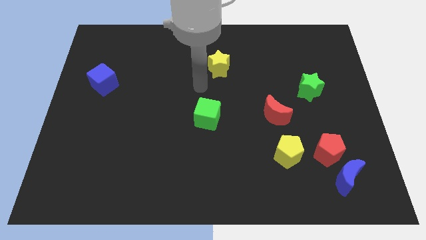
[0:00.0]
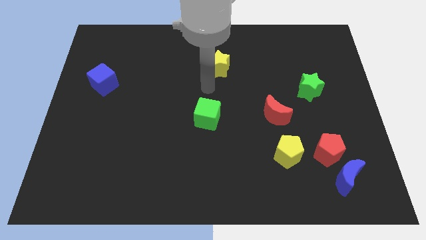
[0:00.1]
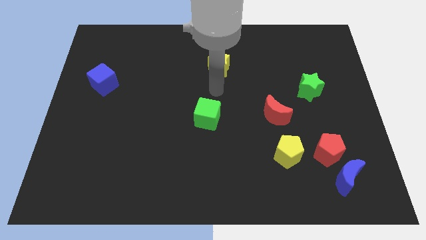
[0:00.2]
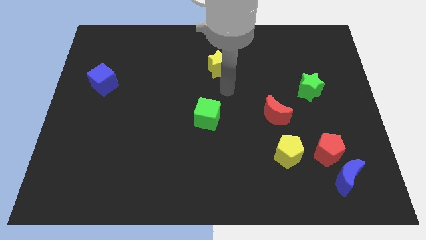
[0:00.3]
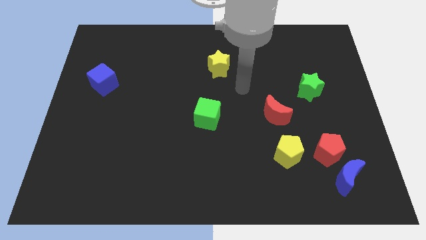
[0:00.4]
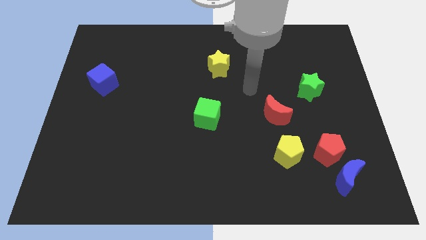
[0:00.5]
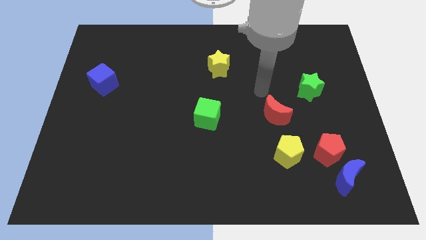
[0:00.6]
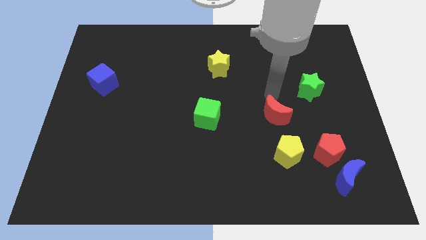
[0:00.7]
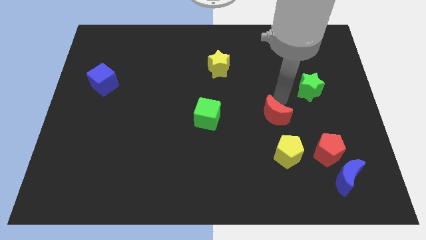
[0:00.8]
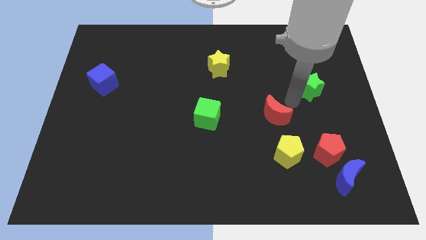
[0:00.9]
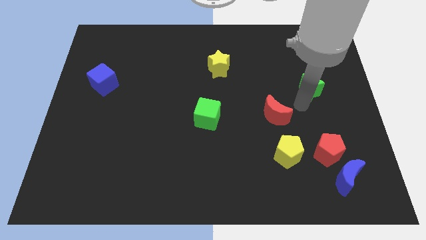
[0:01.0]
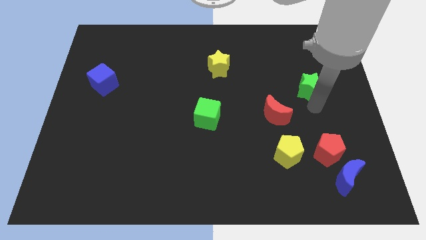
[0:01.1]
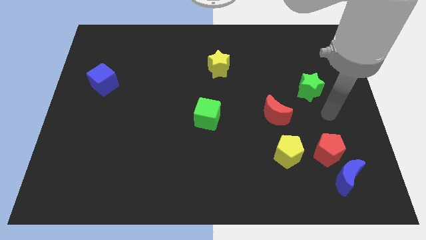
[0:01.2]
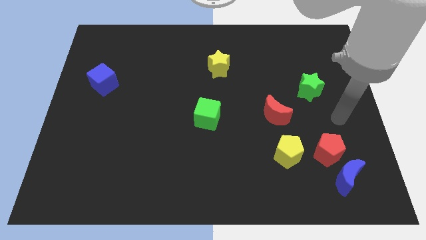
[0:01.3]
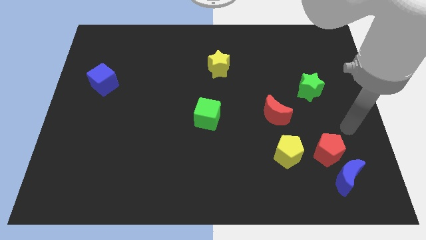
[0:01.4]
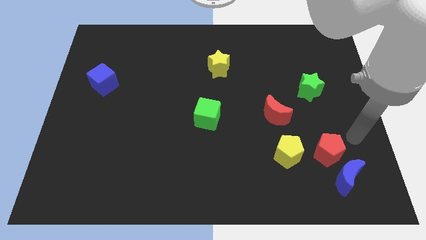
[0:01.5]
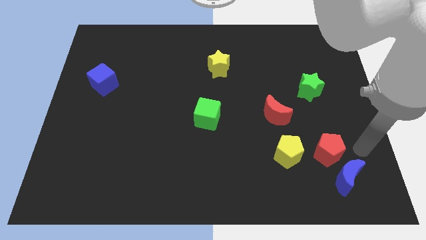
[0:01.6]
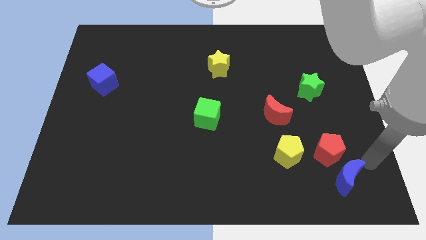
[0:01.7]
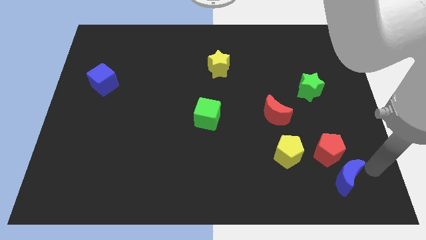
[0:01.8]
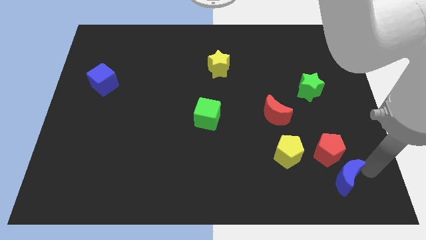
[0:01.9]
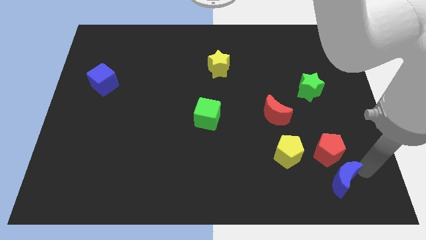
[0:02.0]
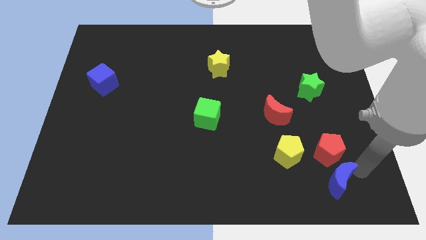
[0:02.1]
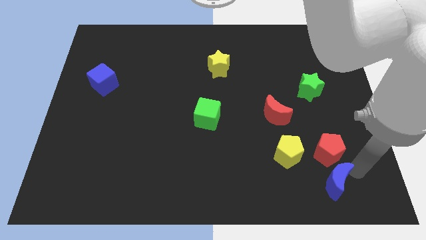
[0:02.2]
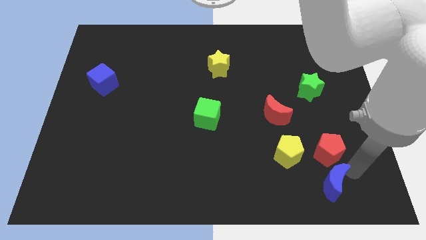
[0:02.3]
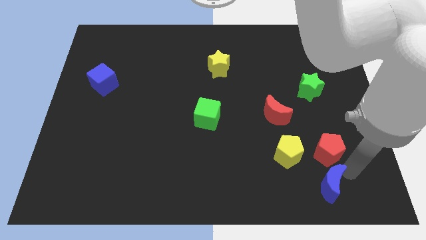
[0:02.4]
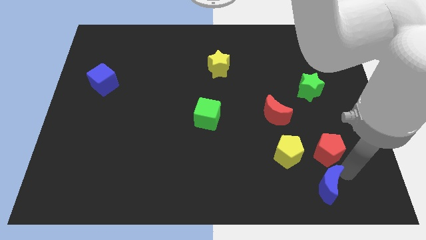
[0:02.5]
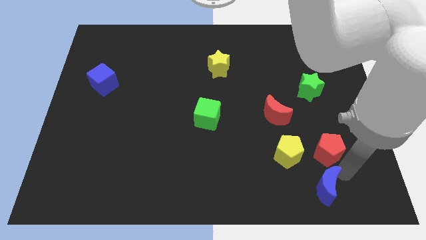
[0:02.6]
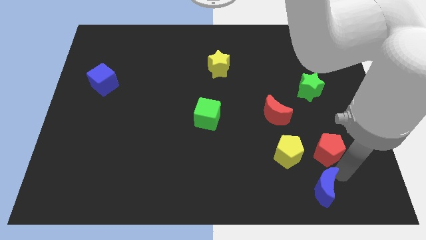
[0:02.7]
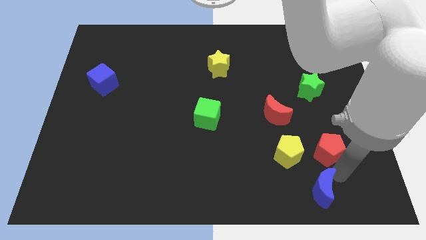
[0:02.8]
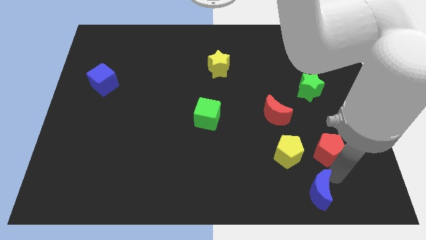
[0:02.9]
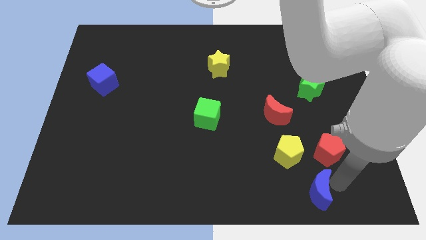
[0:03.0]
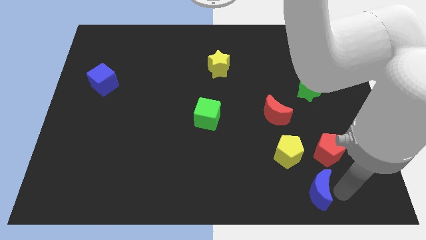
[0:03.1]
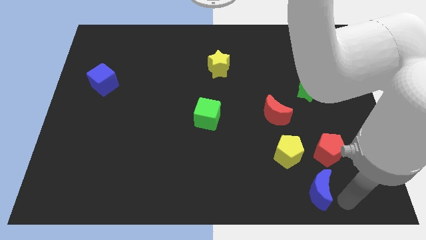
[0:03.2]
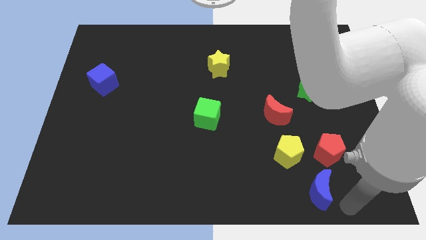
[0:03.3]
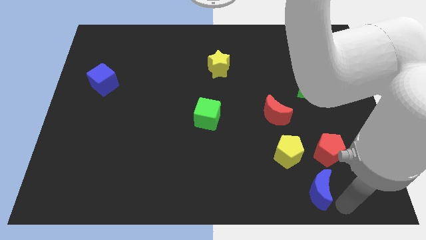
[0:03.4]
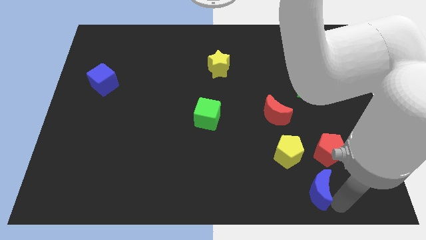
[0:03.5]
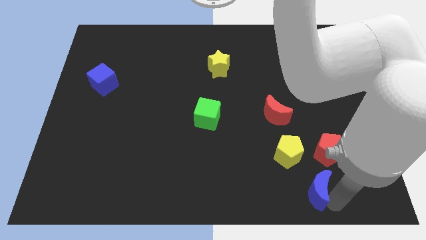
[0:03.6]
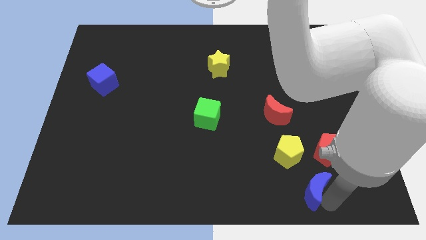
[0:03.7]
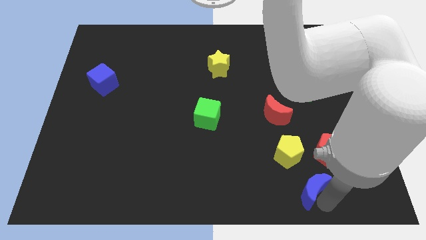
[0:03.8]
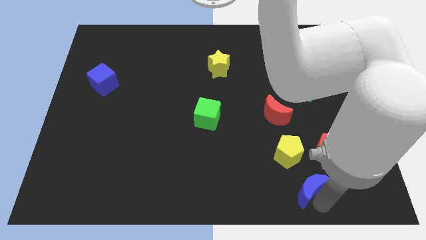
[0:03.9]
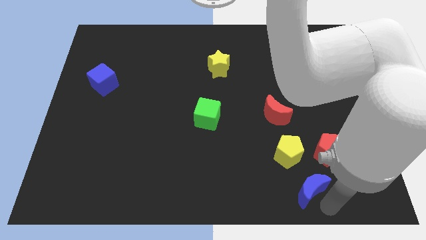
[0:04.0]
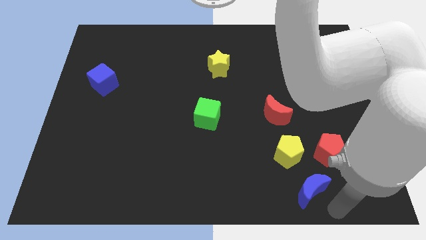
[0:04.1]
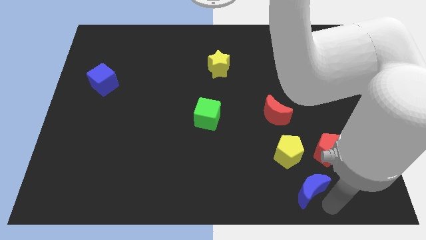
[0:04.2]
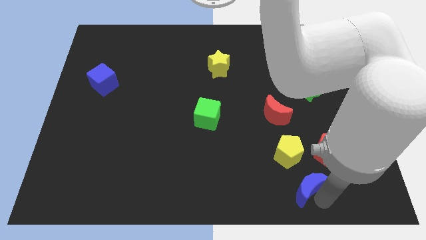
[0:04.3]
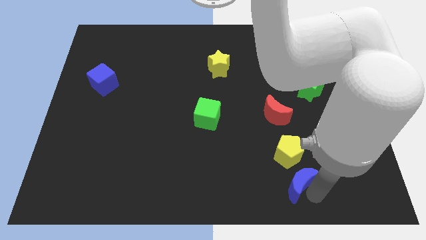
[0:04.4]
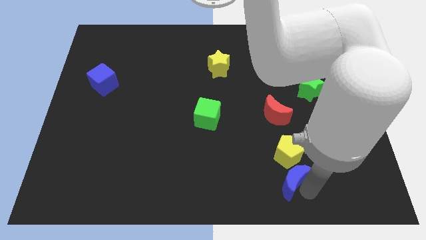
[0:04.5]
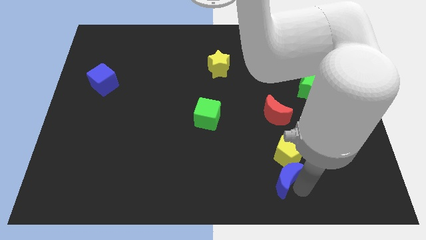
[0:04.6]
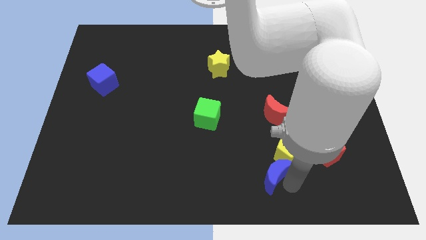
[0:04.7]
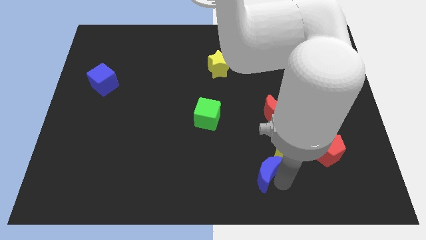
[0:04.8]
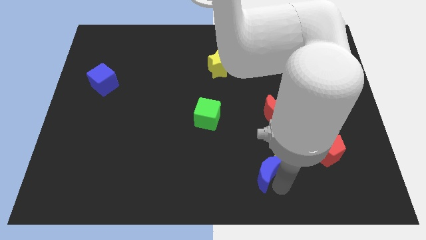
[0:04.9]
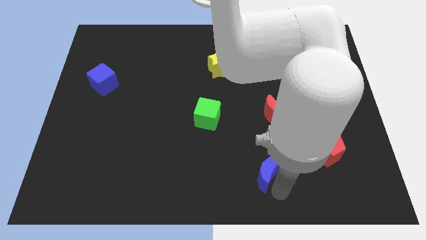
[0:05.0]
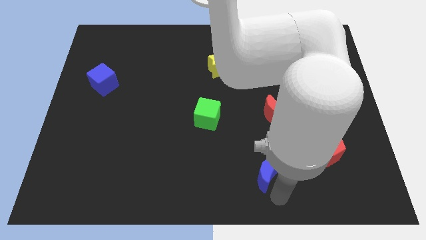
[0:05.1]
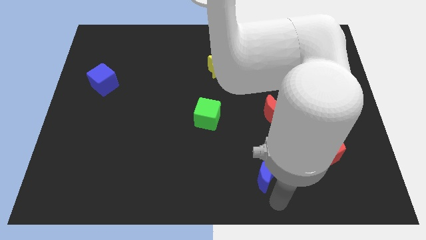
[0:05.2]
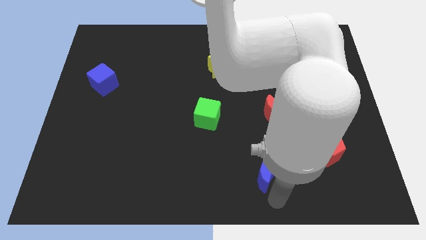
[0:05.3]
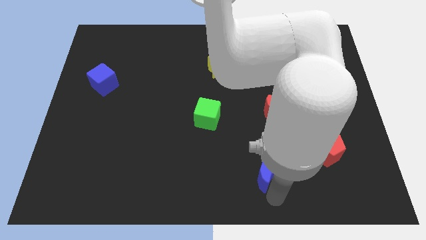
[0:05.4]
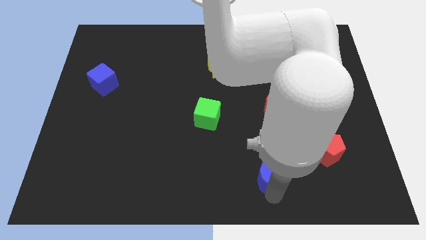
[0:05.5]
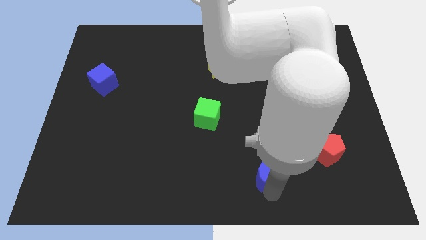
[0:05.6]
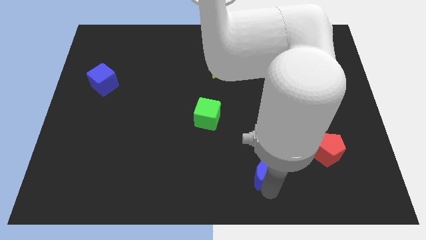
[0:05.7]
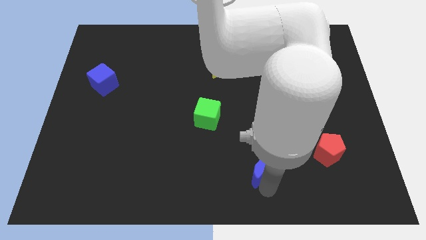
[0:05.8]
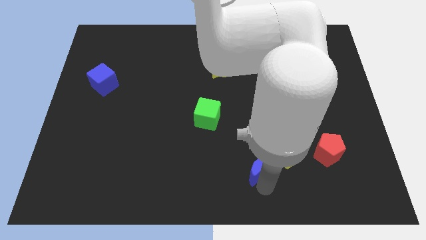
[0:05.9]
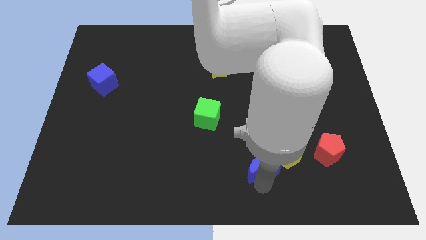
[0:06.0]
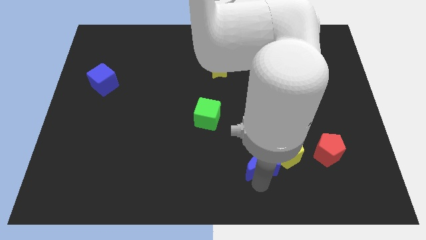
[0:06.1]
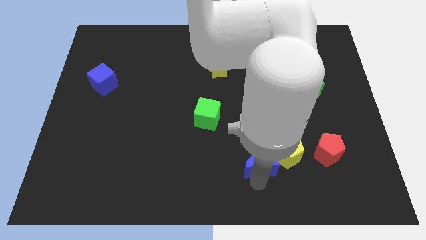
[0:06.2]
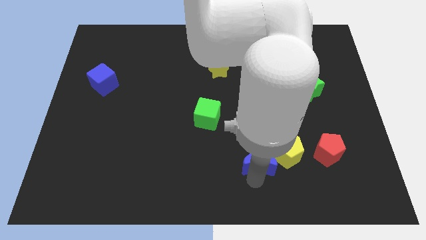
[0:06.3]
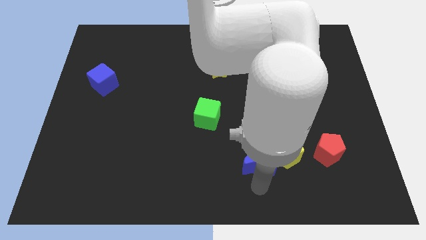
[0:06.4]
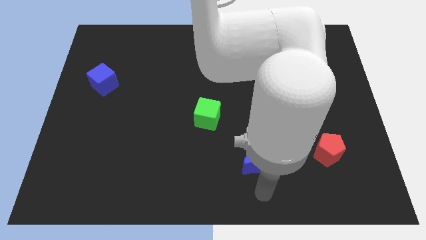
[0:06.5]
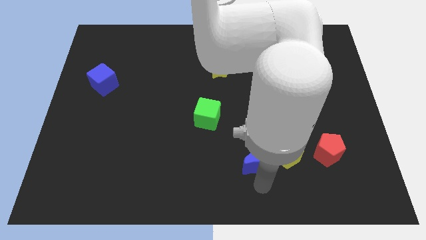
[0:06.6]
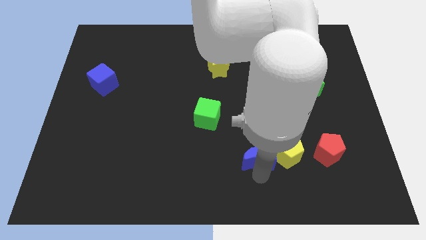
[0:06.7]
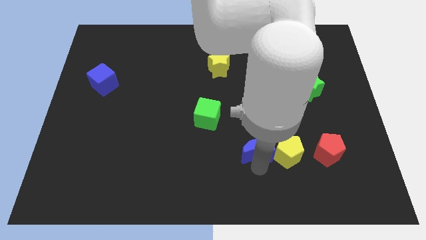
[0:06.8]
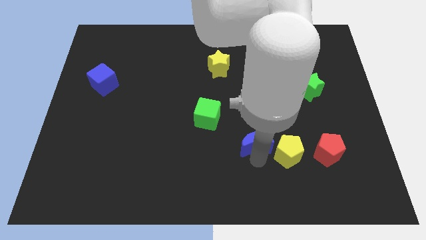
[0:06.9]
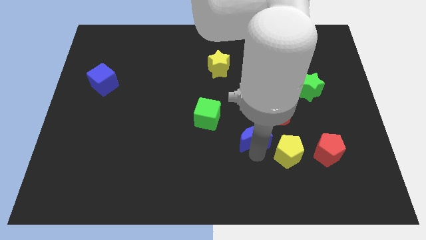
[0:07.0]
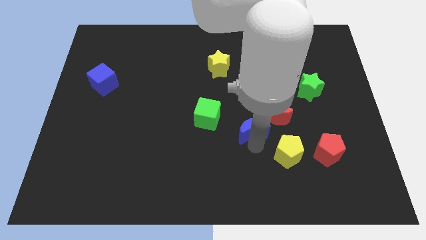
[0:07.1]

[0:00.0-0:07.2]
push the blue moon upwards and left diagonally

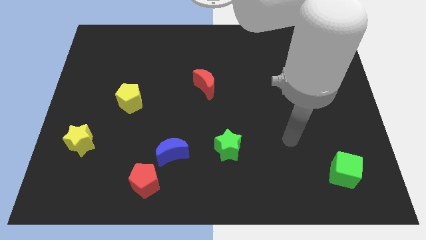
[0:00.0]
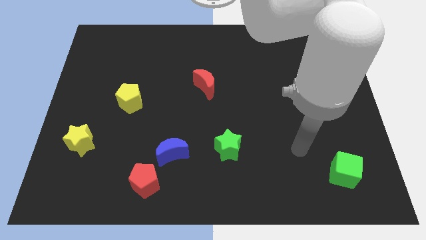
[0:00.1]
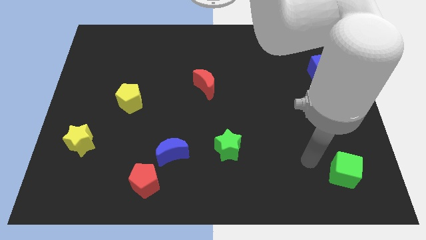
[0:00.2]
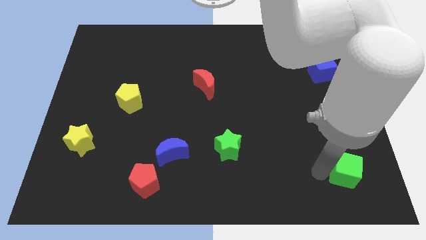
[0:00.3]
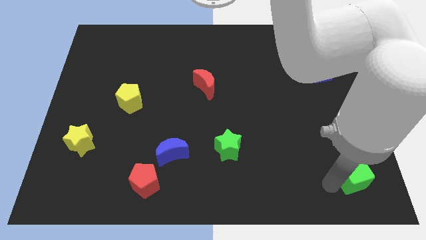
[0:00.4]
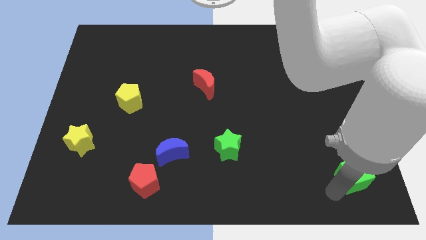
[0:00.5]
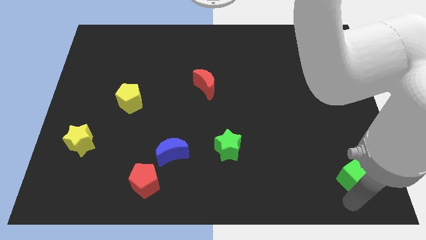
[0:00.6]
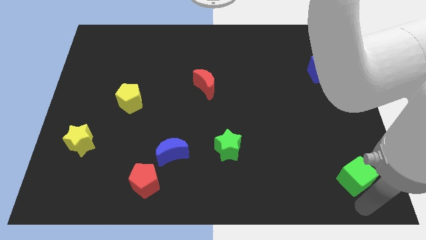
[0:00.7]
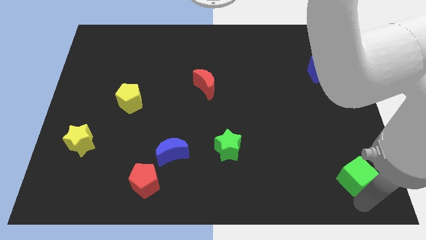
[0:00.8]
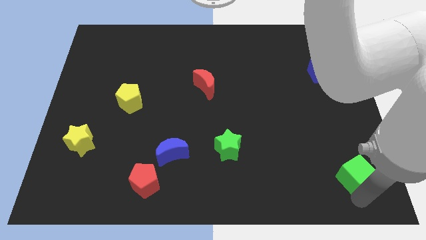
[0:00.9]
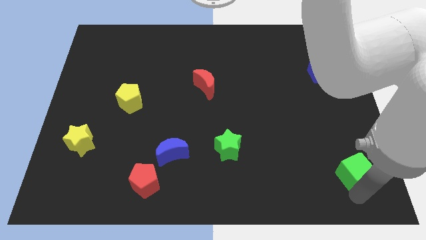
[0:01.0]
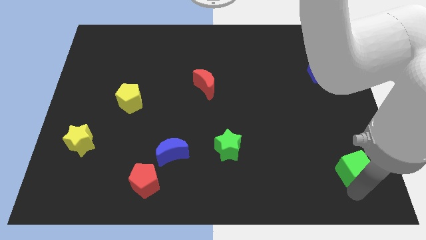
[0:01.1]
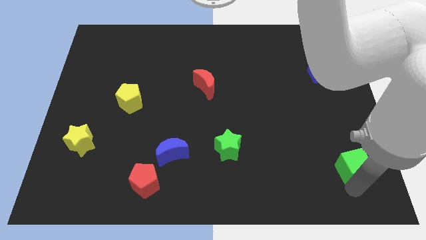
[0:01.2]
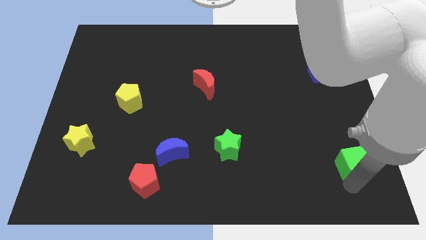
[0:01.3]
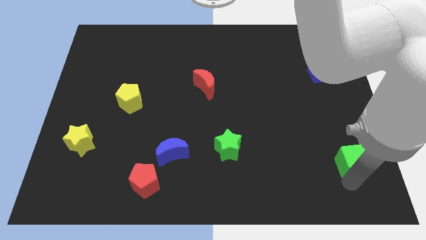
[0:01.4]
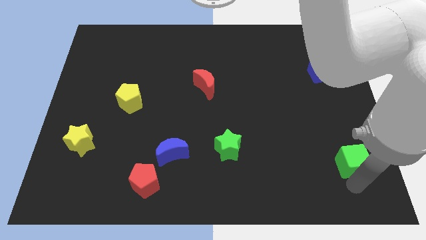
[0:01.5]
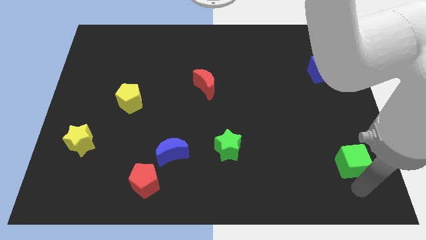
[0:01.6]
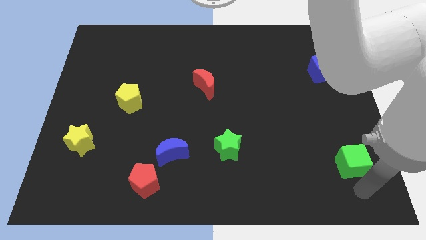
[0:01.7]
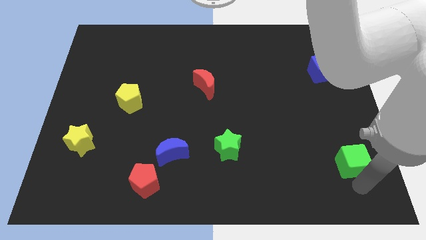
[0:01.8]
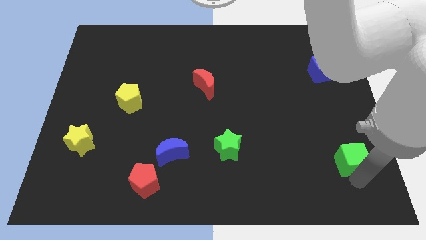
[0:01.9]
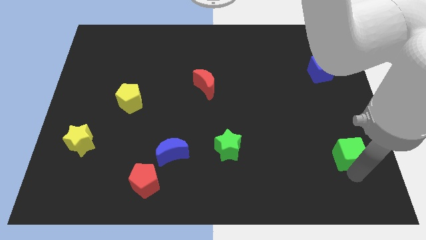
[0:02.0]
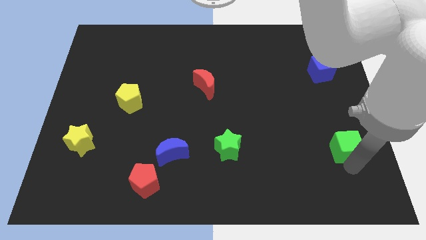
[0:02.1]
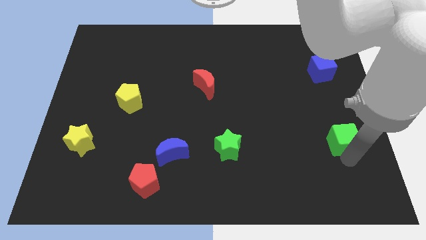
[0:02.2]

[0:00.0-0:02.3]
move the green cube somewhat up
